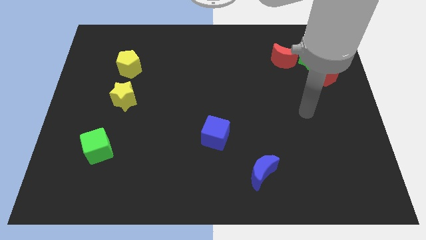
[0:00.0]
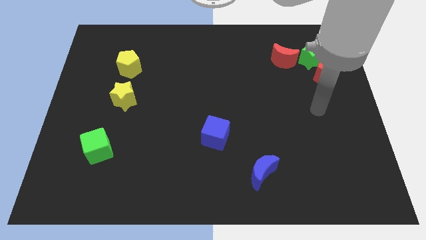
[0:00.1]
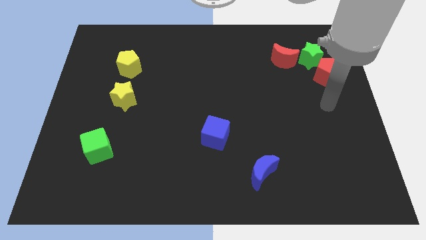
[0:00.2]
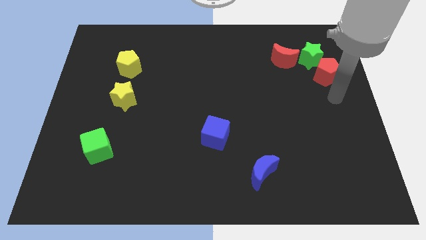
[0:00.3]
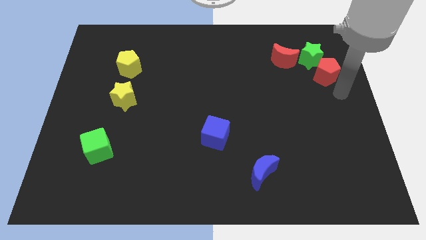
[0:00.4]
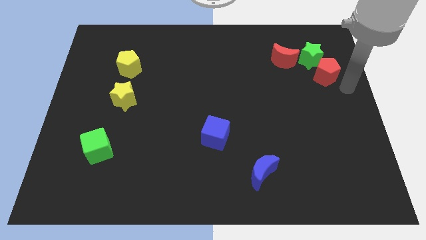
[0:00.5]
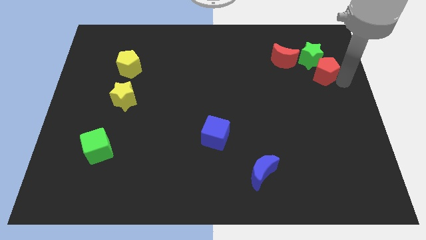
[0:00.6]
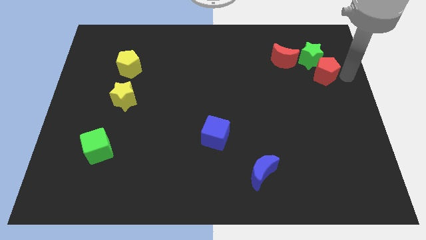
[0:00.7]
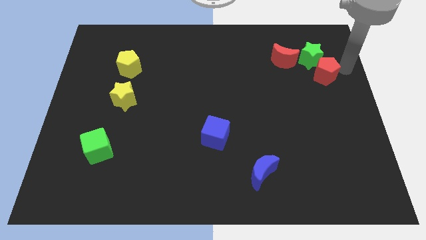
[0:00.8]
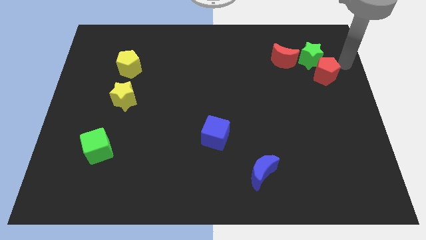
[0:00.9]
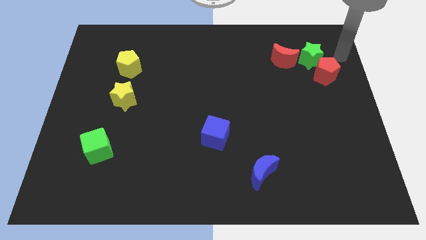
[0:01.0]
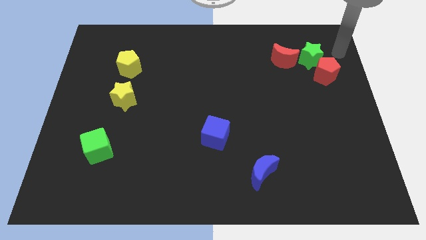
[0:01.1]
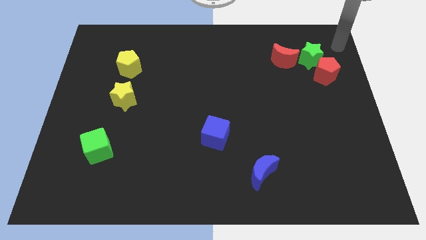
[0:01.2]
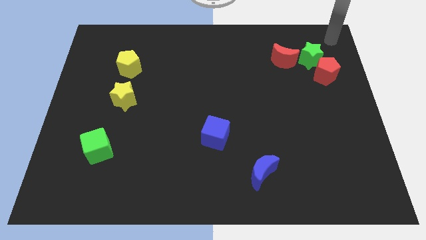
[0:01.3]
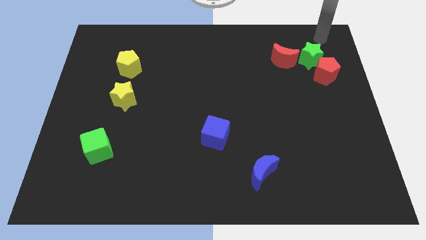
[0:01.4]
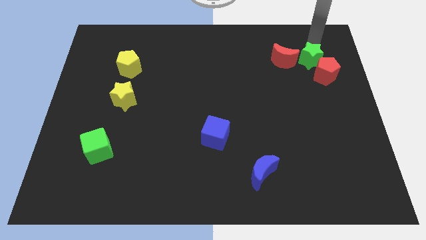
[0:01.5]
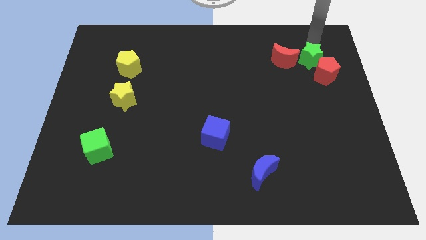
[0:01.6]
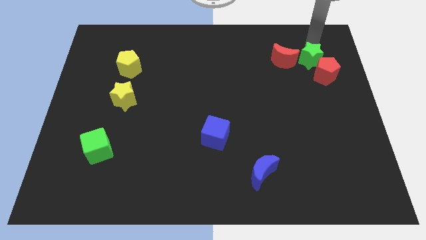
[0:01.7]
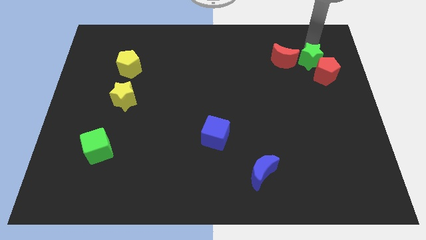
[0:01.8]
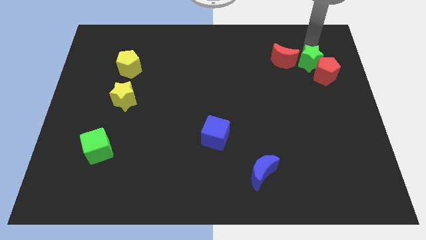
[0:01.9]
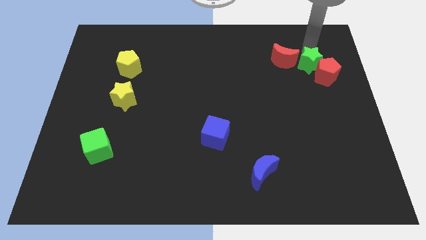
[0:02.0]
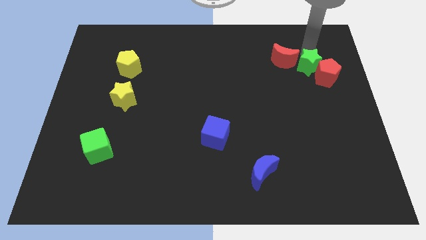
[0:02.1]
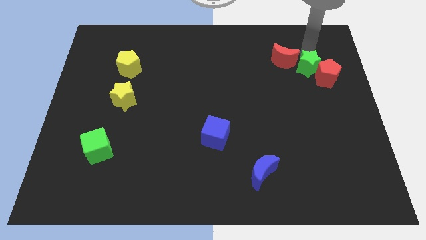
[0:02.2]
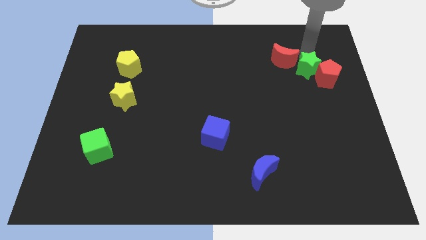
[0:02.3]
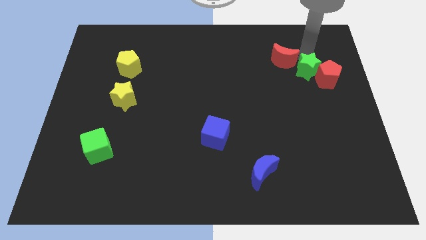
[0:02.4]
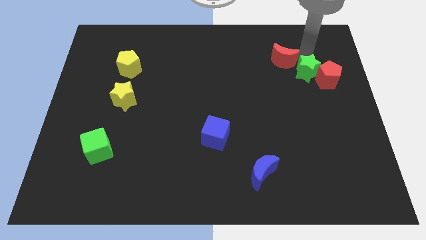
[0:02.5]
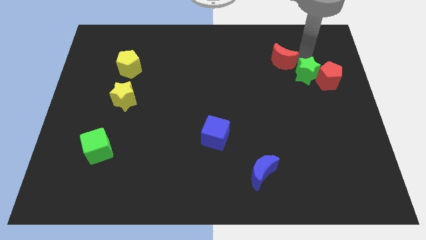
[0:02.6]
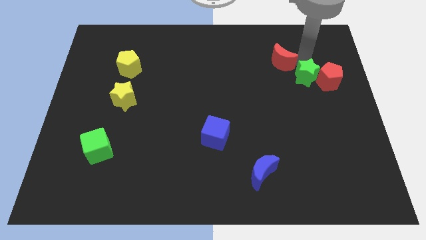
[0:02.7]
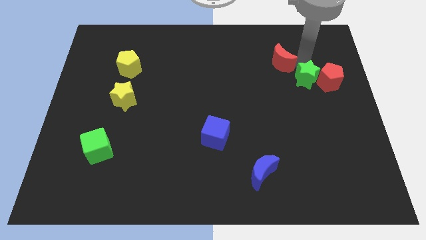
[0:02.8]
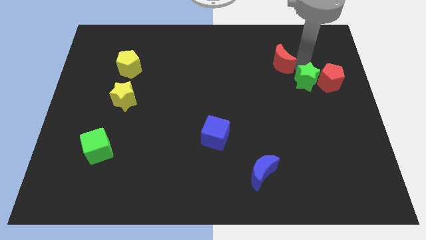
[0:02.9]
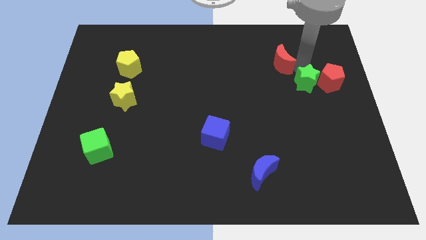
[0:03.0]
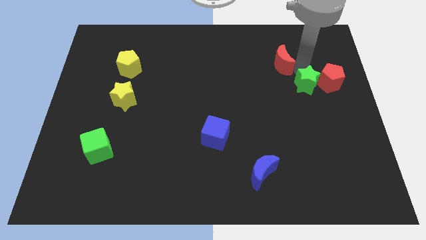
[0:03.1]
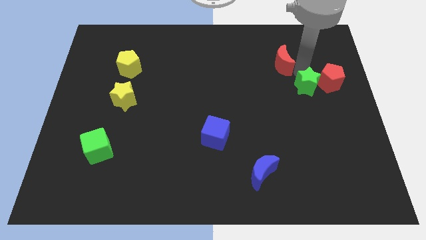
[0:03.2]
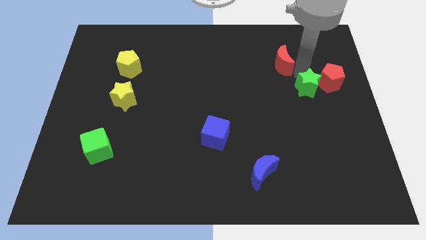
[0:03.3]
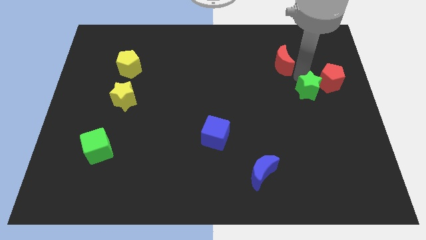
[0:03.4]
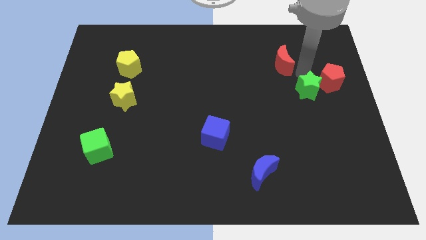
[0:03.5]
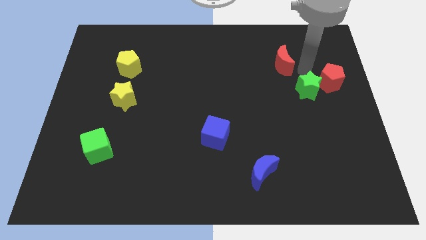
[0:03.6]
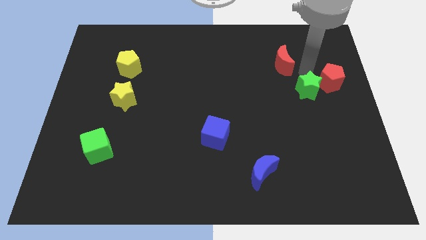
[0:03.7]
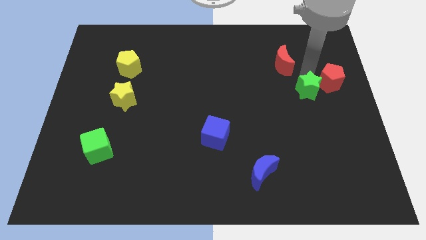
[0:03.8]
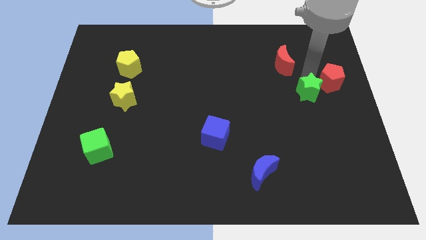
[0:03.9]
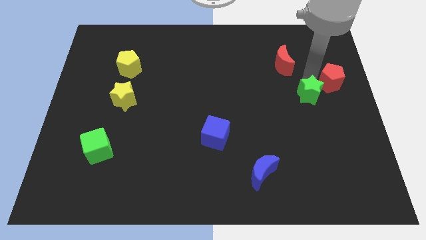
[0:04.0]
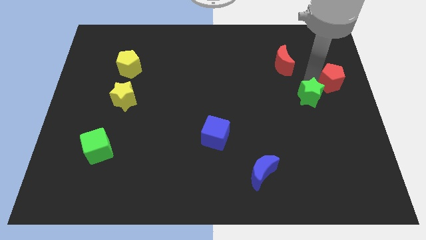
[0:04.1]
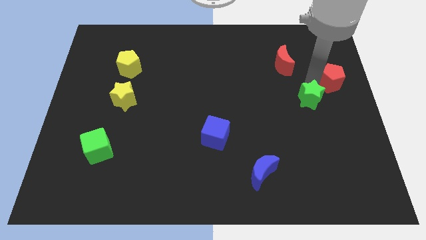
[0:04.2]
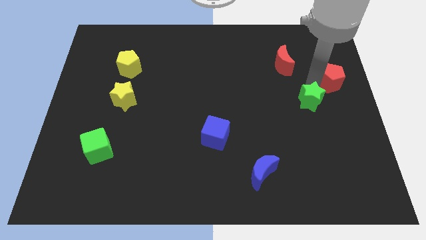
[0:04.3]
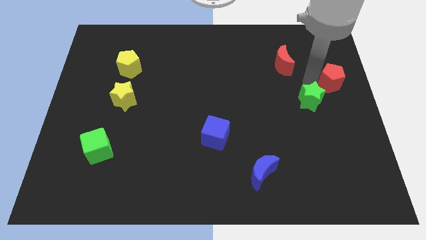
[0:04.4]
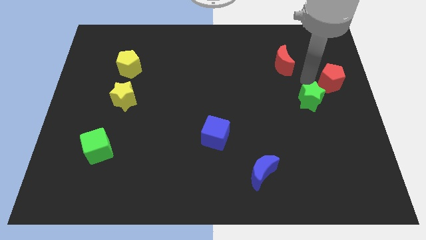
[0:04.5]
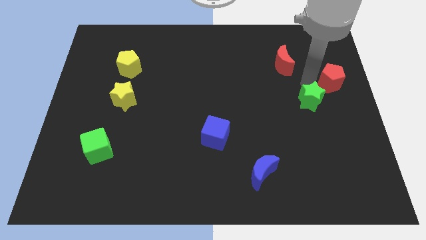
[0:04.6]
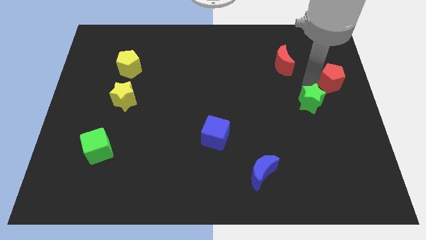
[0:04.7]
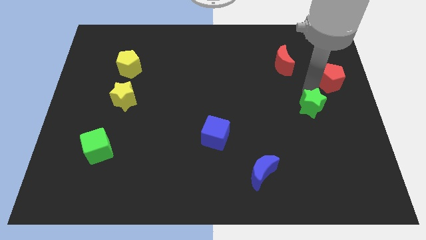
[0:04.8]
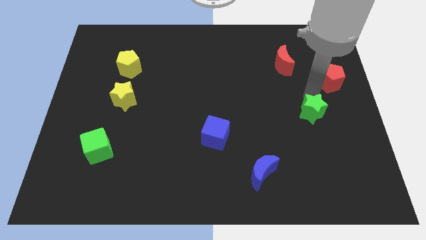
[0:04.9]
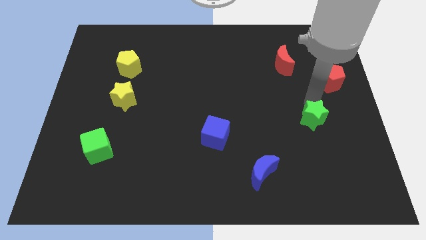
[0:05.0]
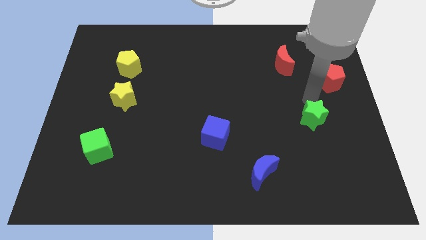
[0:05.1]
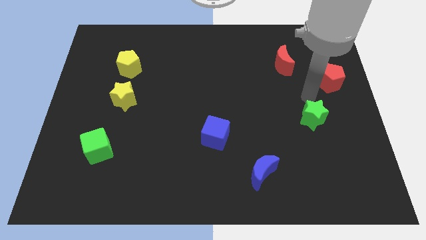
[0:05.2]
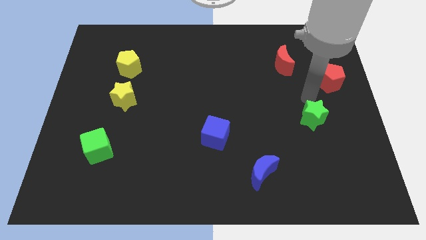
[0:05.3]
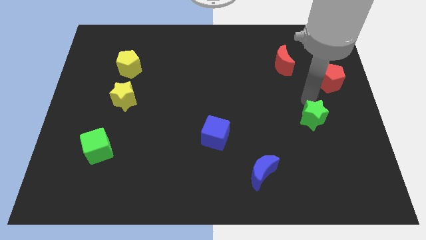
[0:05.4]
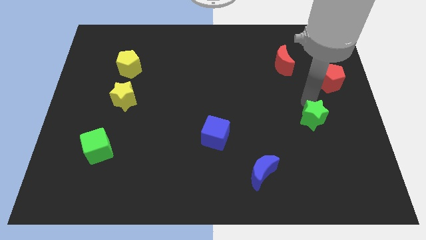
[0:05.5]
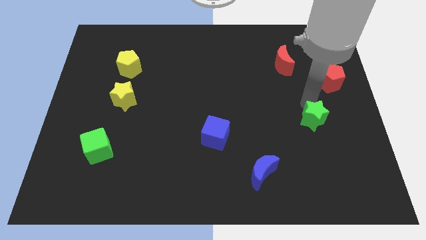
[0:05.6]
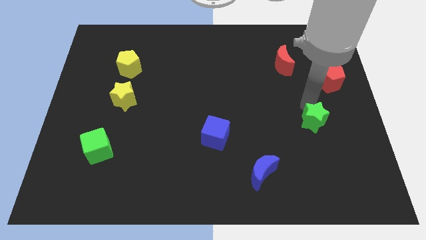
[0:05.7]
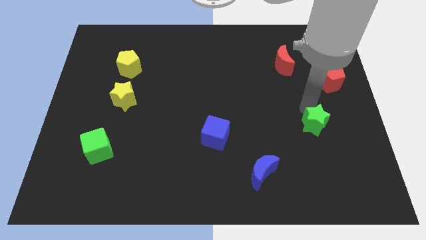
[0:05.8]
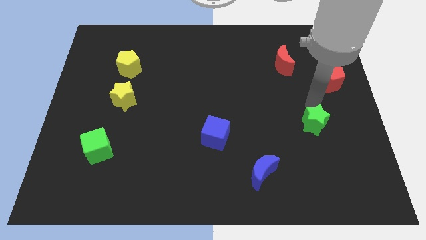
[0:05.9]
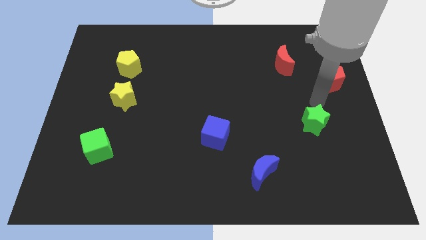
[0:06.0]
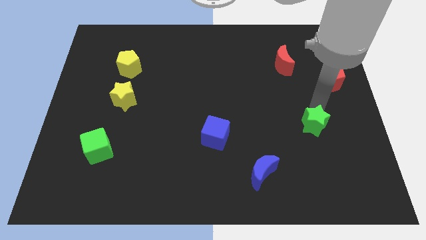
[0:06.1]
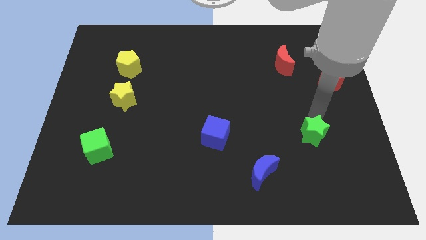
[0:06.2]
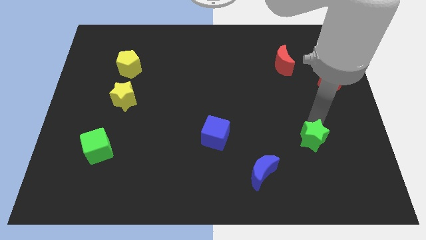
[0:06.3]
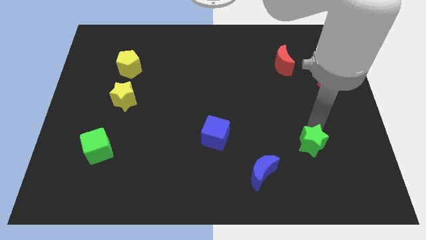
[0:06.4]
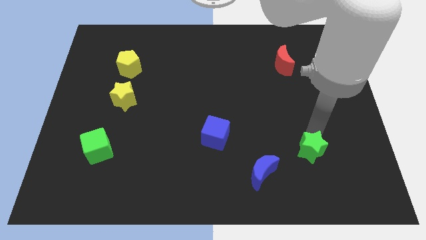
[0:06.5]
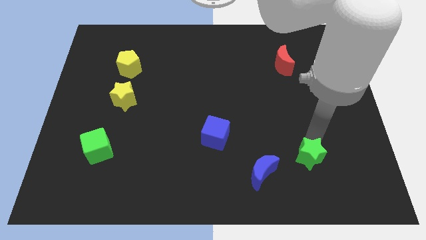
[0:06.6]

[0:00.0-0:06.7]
slide the green star to the right side of the blue moon
